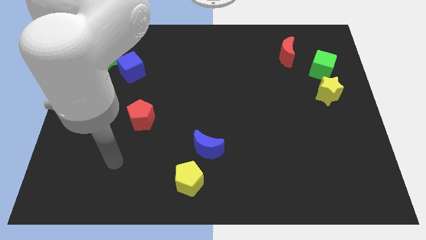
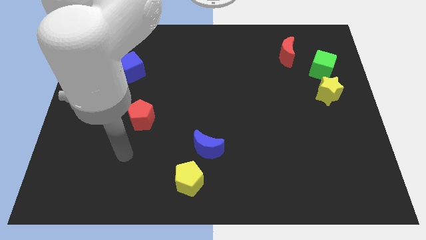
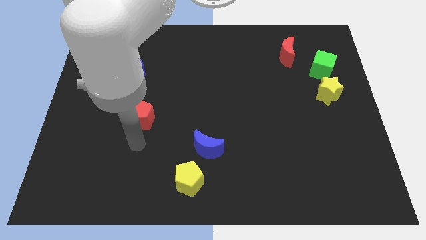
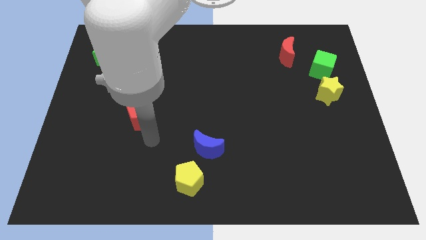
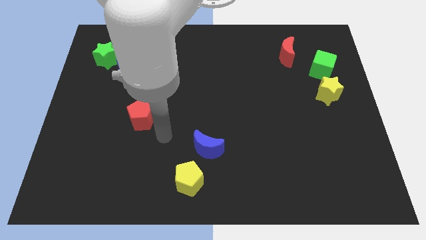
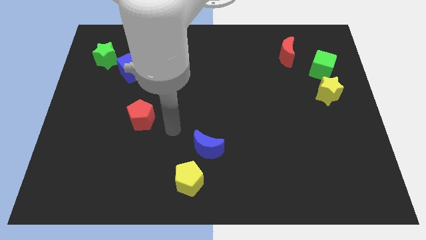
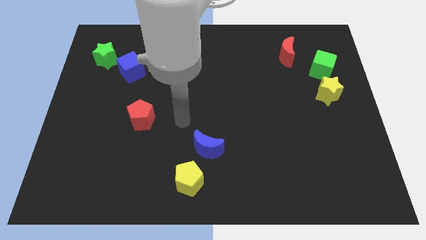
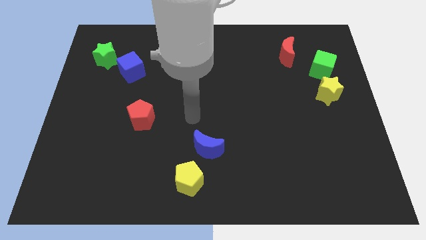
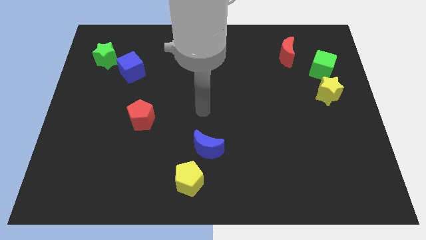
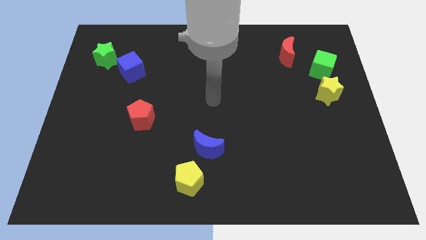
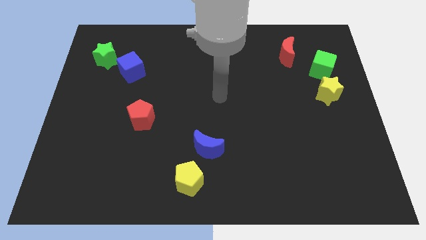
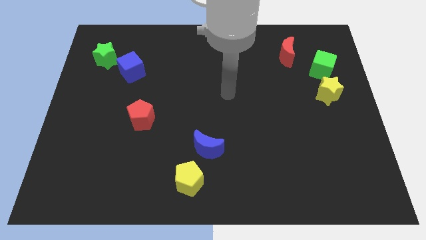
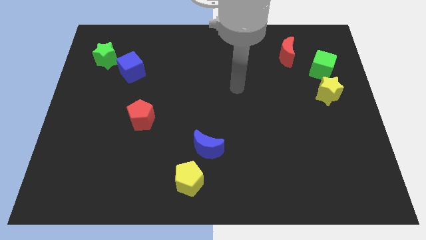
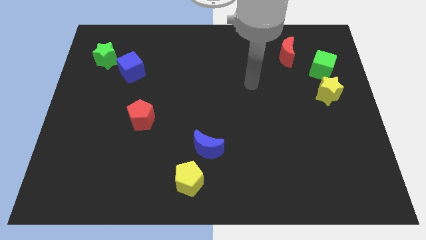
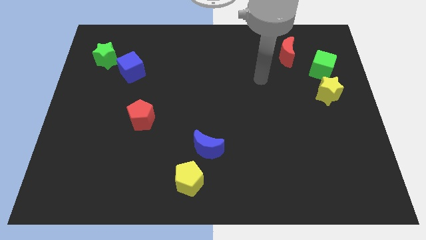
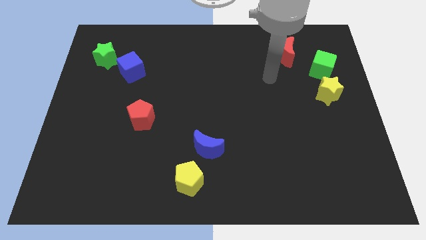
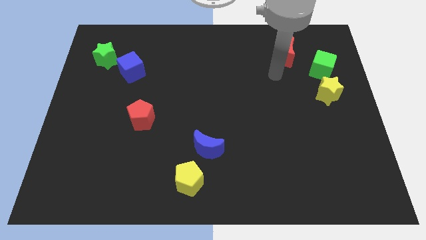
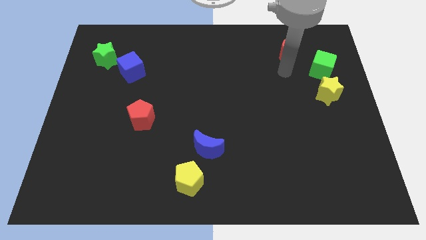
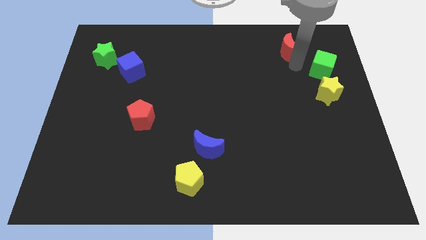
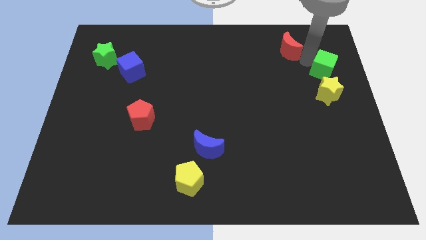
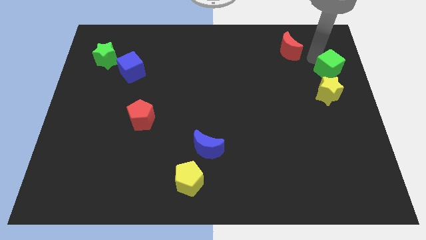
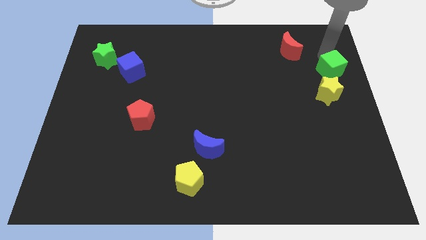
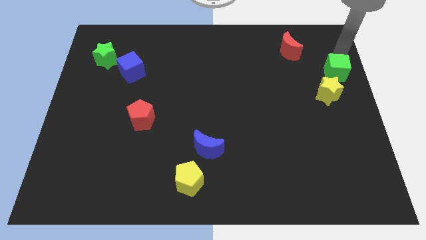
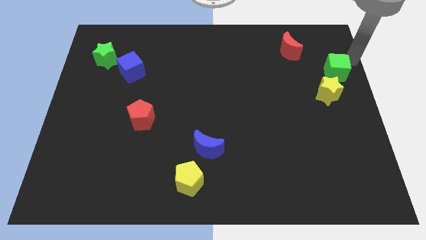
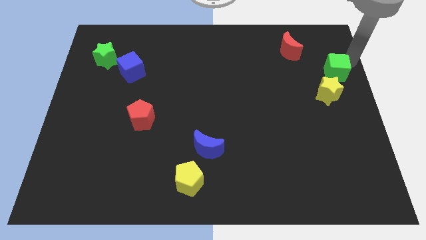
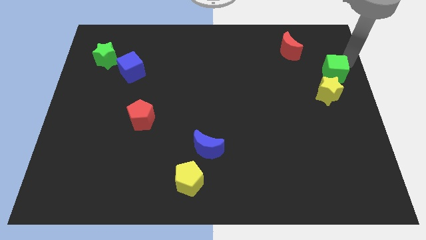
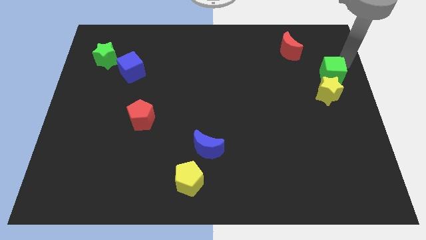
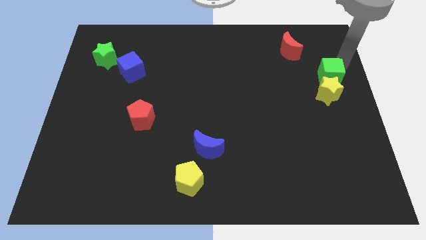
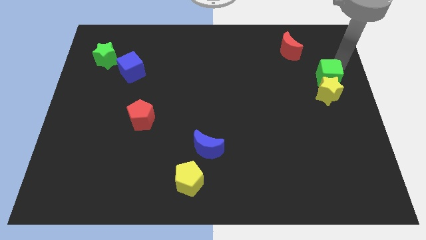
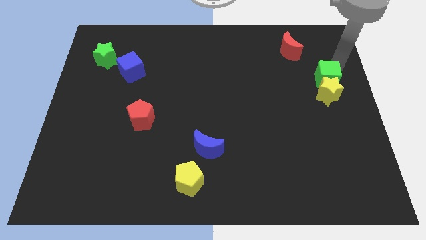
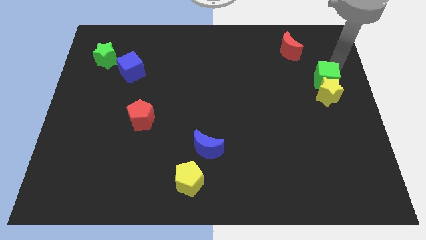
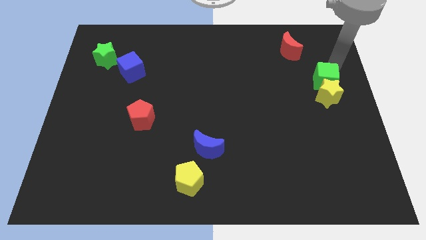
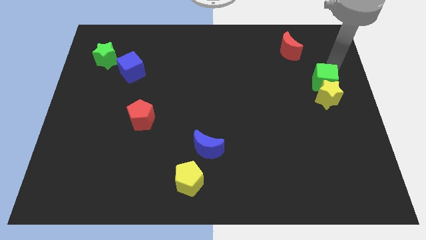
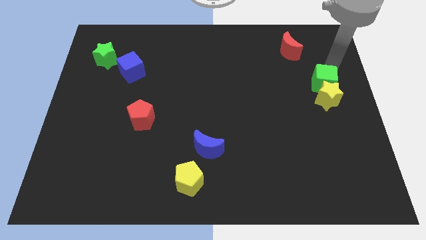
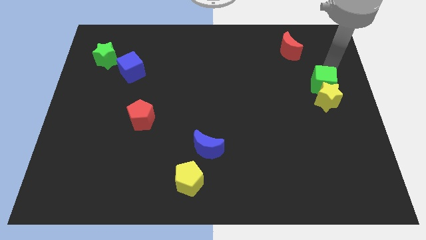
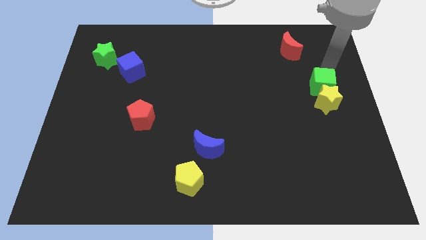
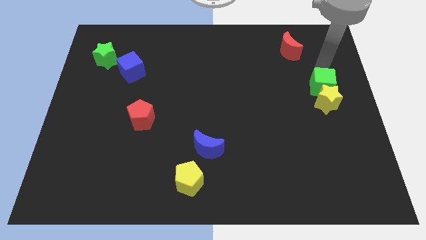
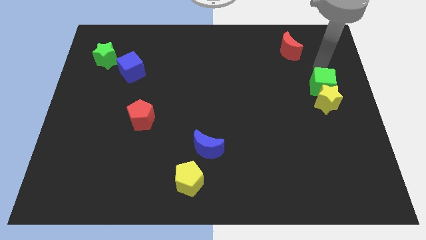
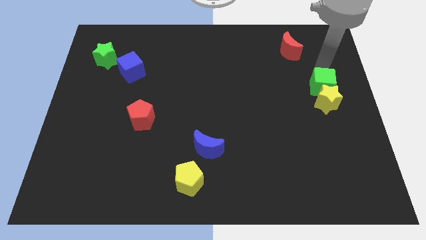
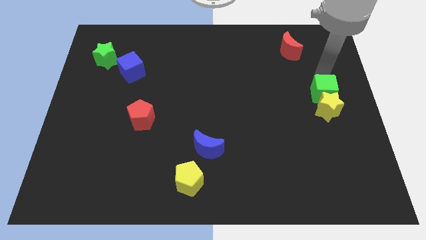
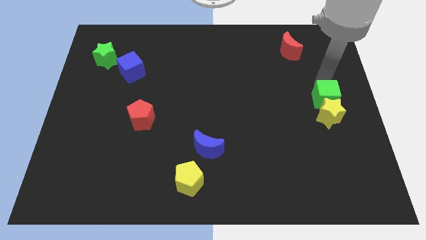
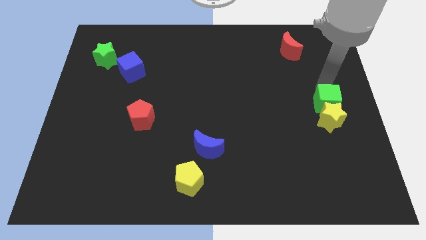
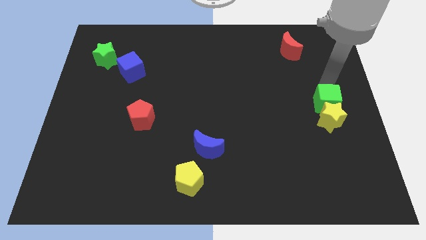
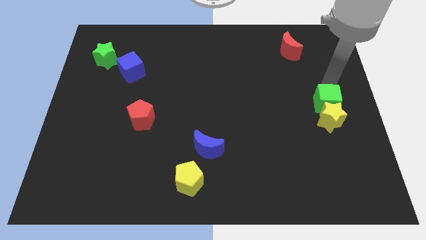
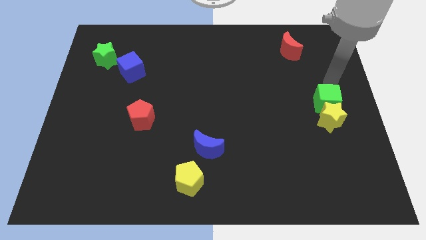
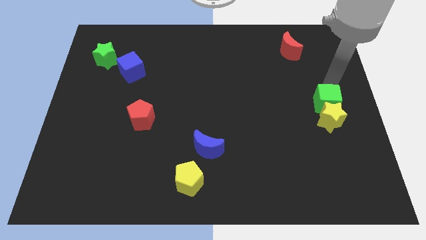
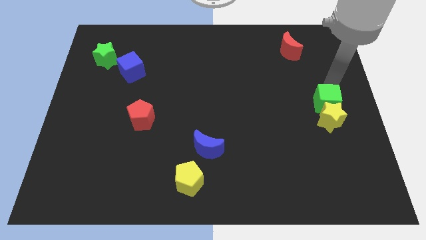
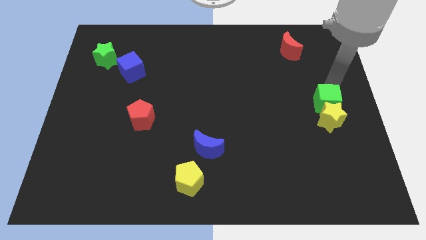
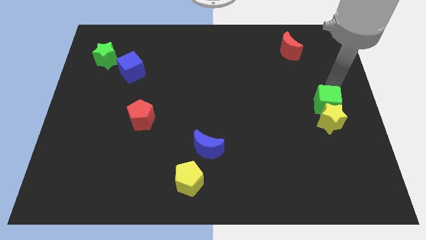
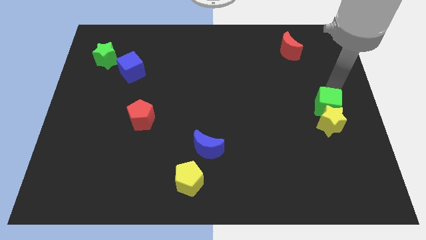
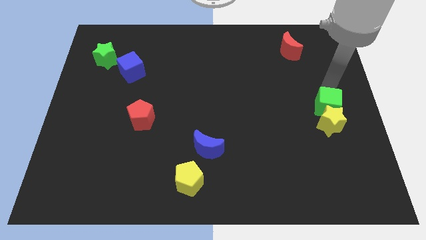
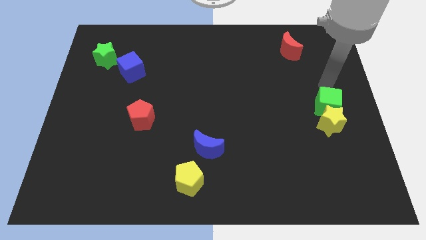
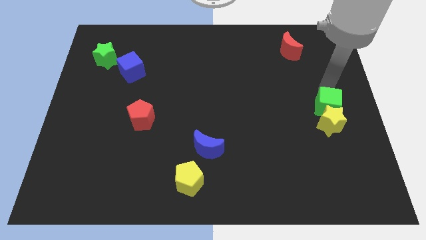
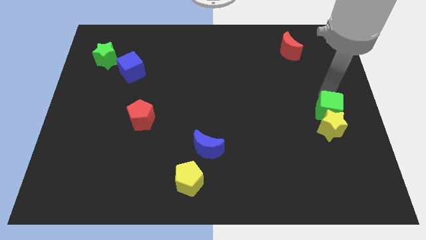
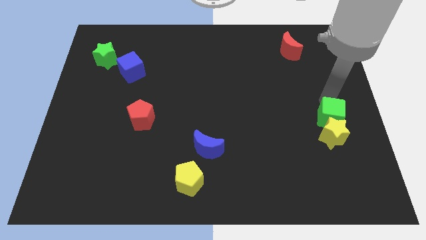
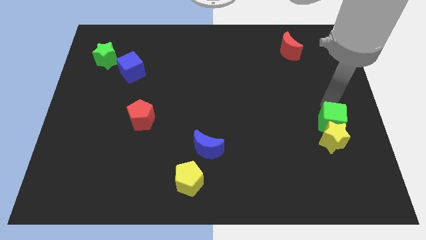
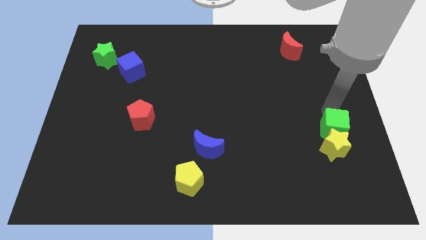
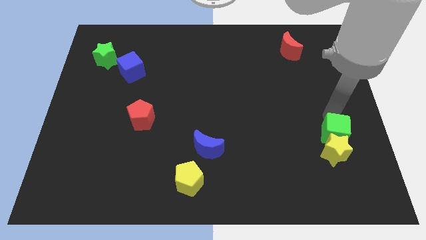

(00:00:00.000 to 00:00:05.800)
push the green cube downwards

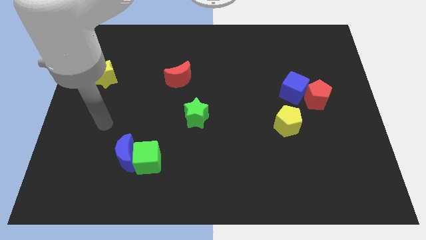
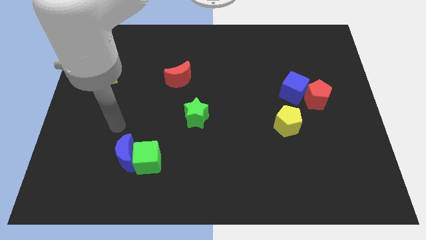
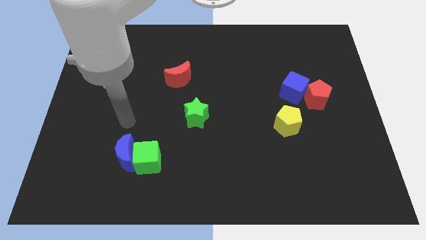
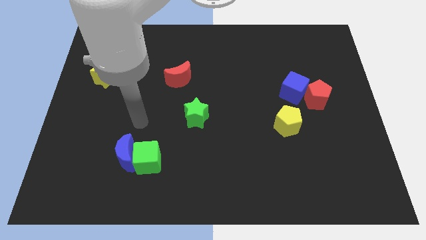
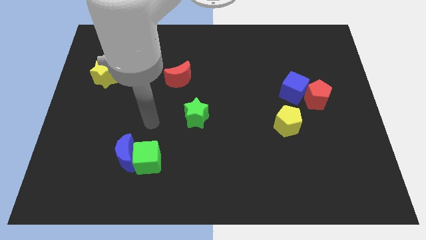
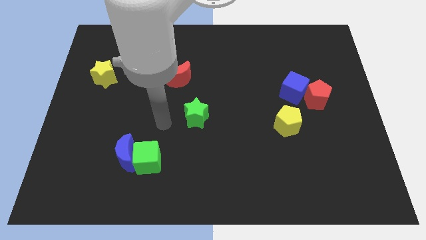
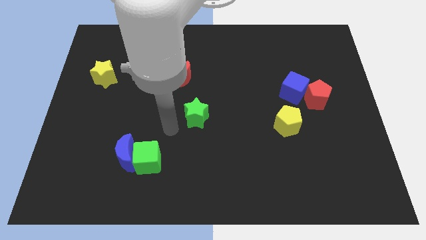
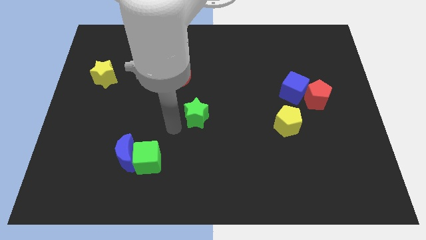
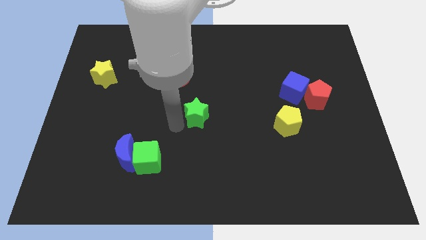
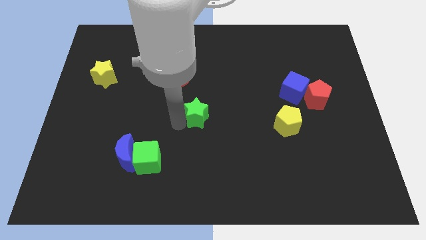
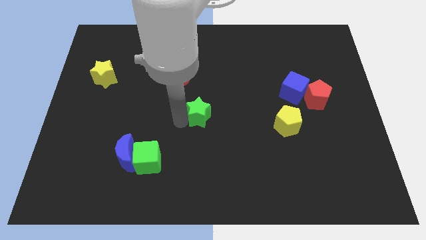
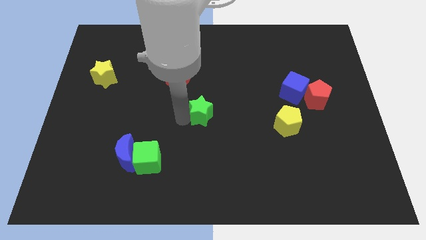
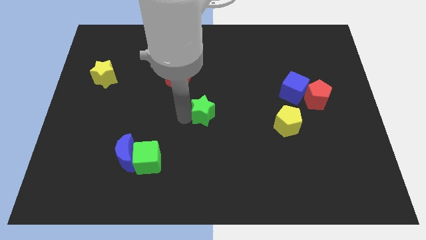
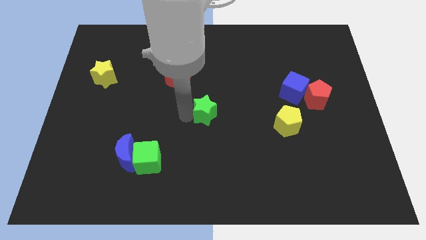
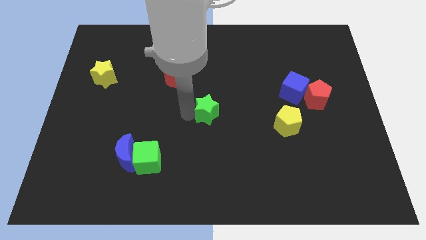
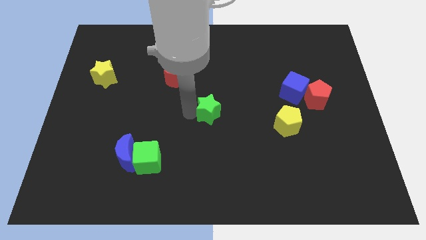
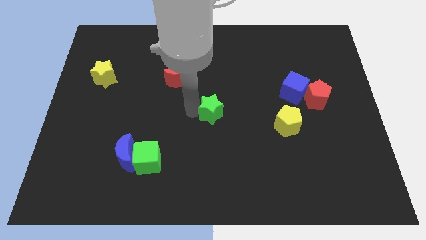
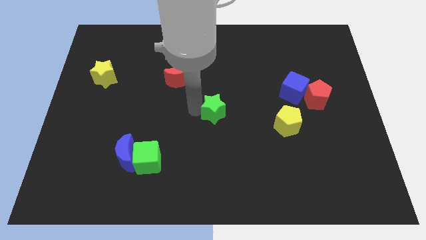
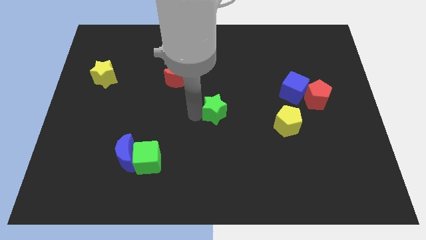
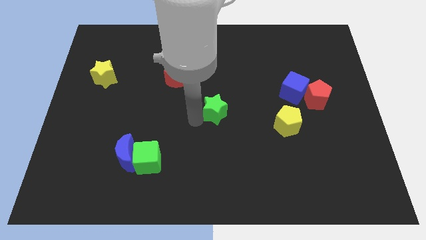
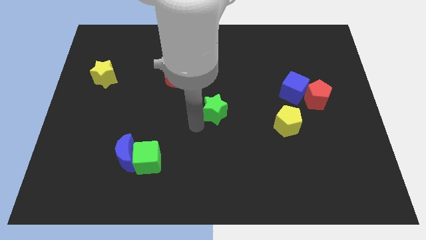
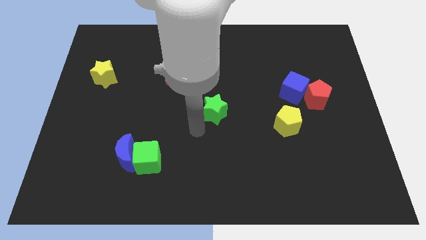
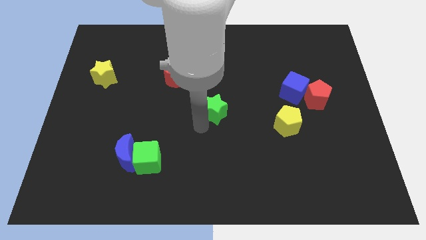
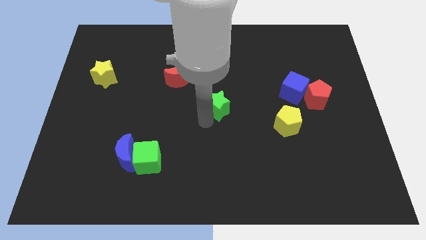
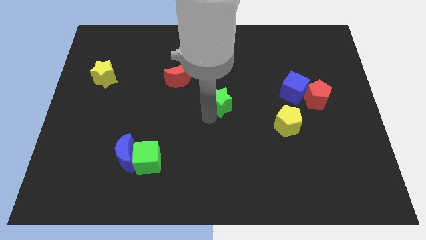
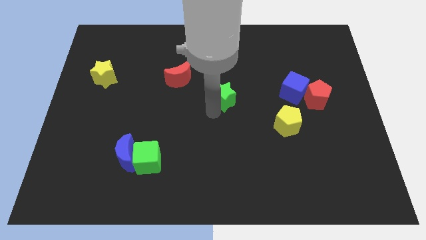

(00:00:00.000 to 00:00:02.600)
push the green star somewhat upwards and then right
